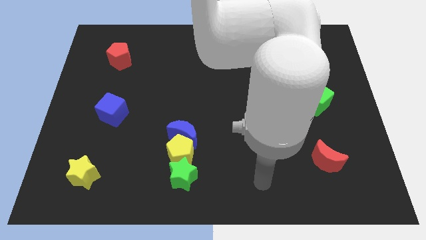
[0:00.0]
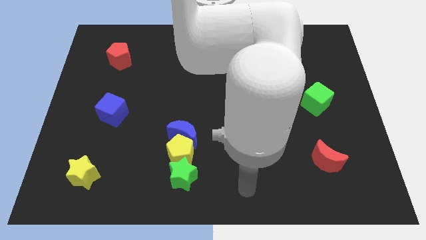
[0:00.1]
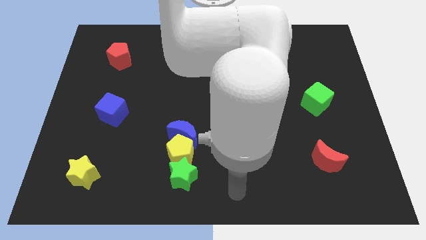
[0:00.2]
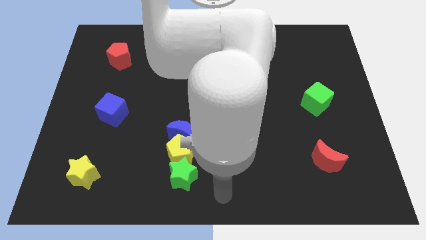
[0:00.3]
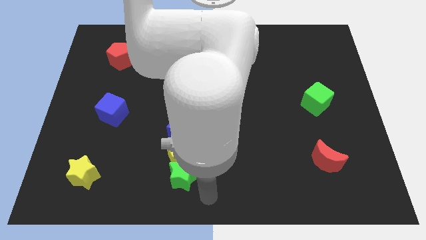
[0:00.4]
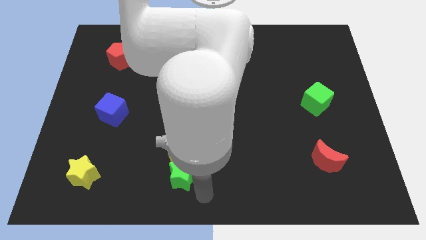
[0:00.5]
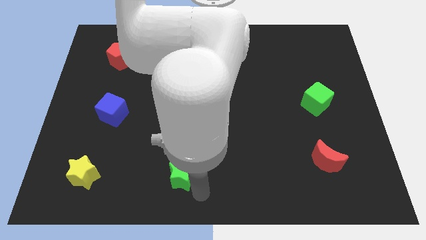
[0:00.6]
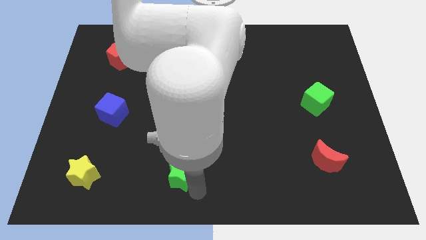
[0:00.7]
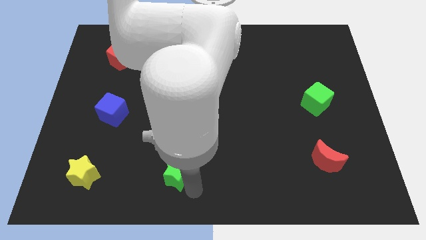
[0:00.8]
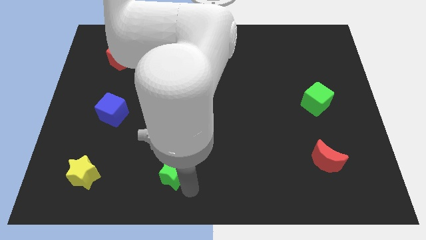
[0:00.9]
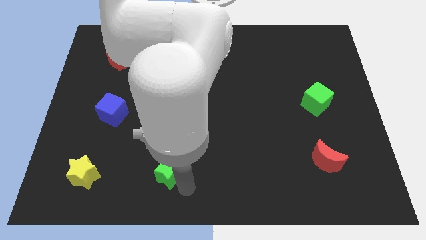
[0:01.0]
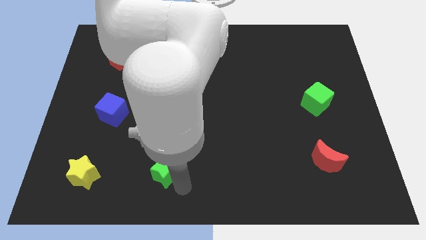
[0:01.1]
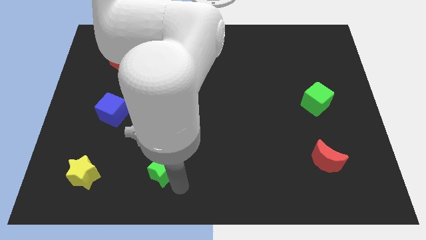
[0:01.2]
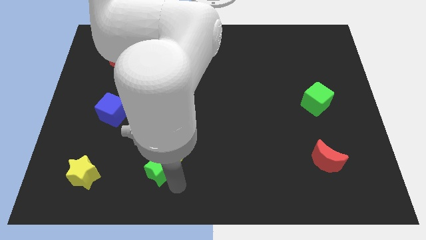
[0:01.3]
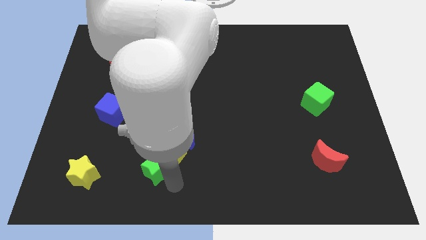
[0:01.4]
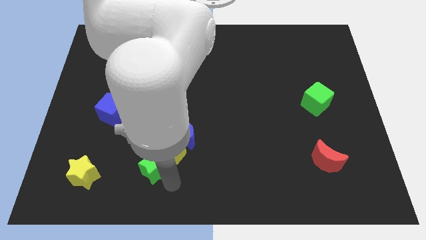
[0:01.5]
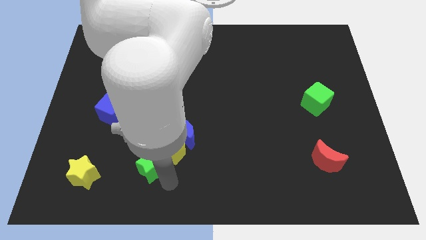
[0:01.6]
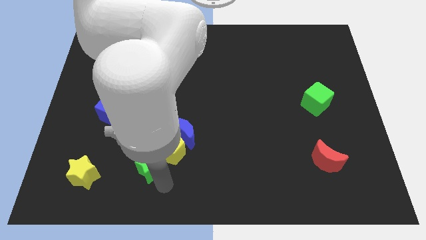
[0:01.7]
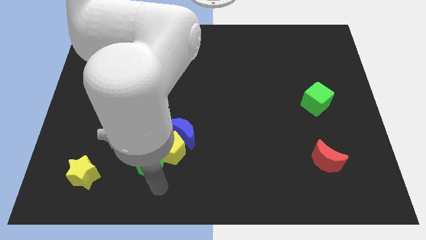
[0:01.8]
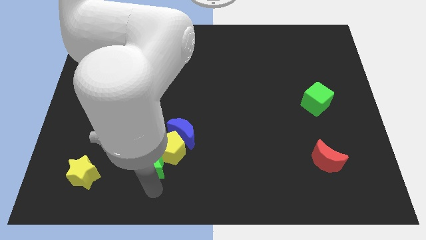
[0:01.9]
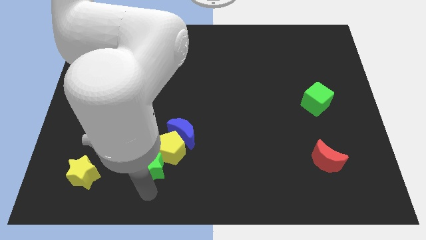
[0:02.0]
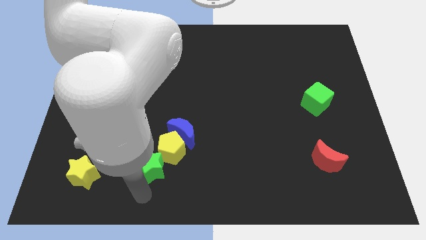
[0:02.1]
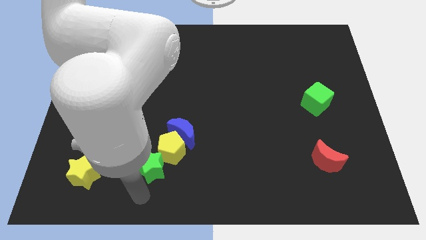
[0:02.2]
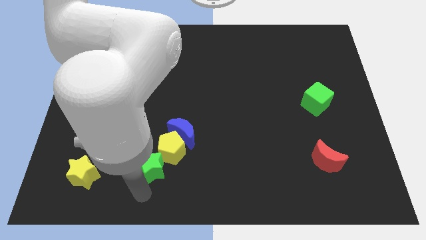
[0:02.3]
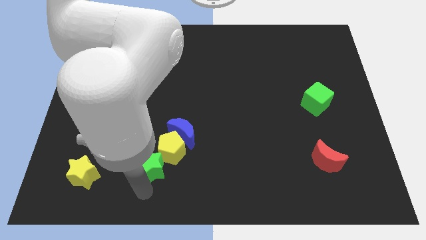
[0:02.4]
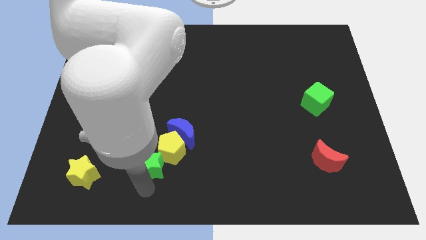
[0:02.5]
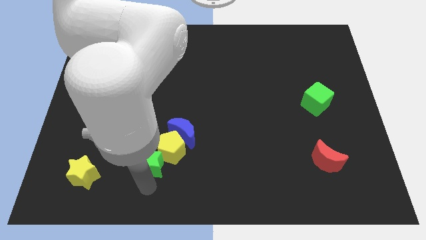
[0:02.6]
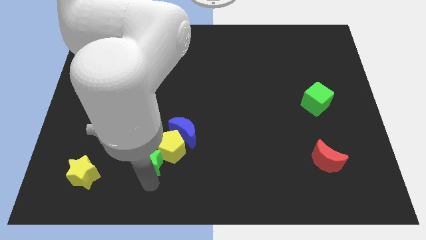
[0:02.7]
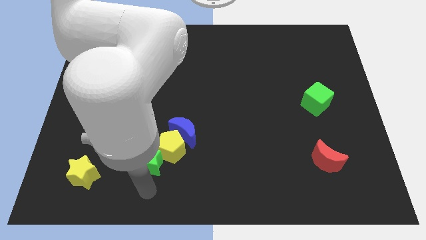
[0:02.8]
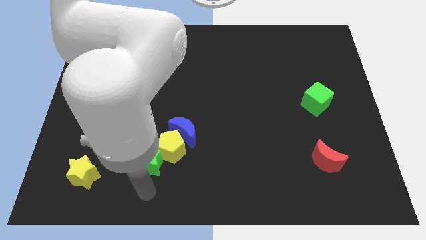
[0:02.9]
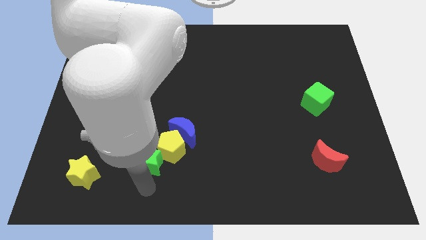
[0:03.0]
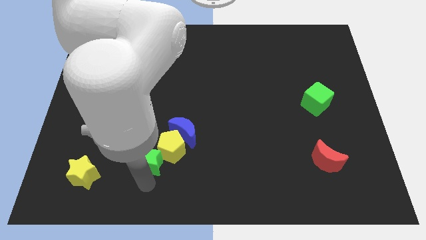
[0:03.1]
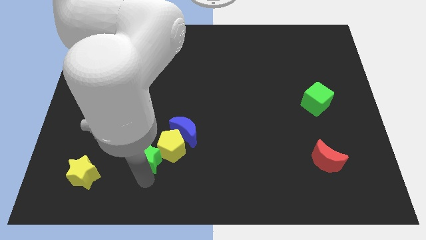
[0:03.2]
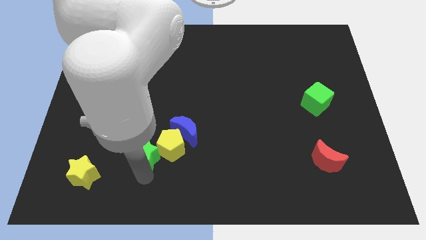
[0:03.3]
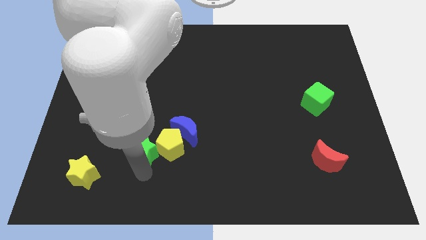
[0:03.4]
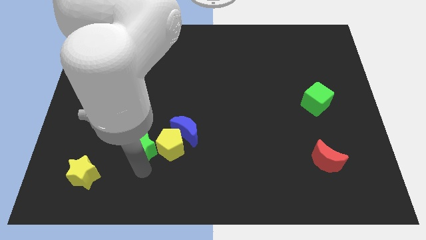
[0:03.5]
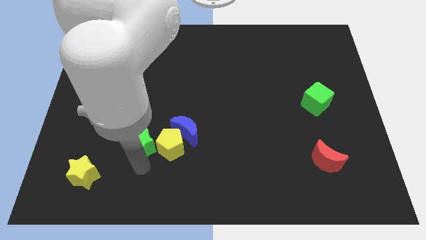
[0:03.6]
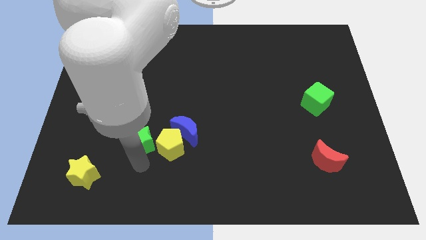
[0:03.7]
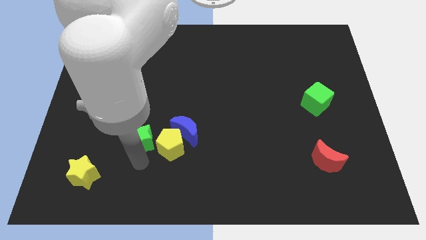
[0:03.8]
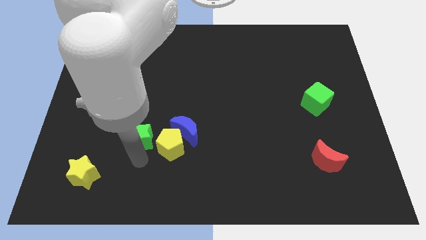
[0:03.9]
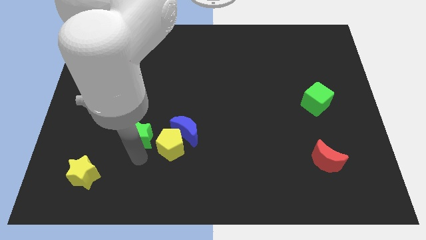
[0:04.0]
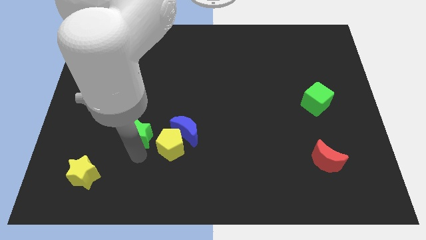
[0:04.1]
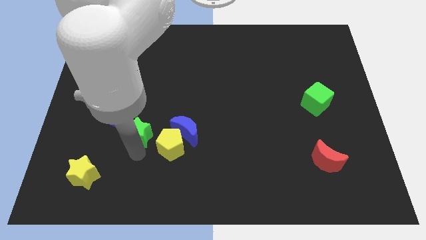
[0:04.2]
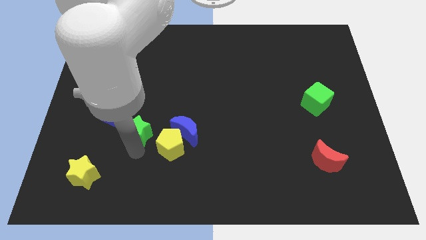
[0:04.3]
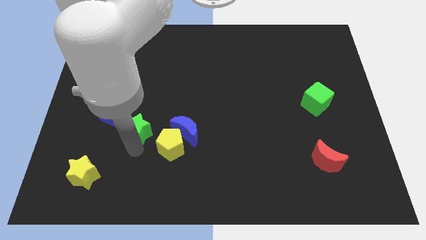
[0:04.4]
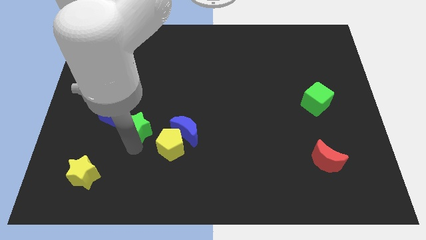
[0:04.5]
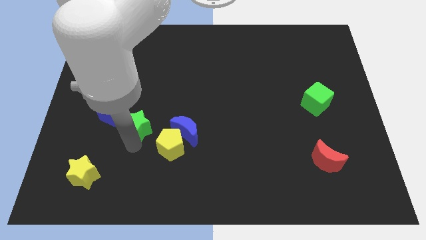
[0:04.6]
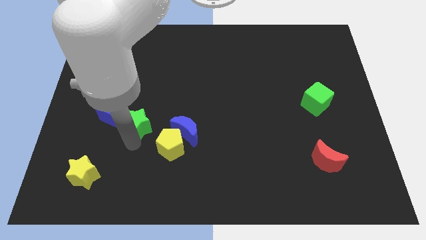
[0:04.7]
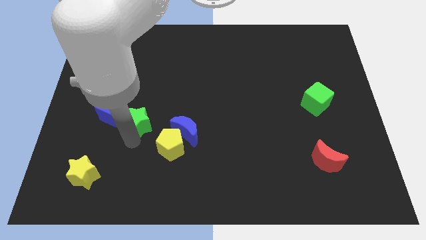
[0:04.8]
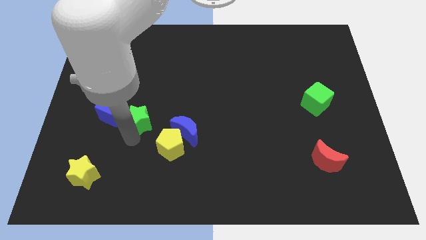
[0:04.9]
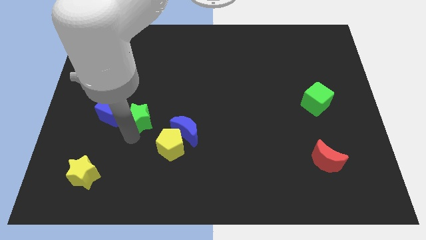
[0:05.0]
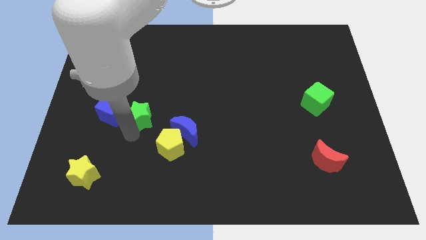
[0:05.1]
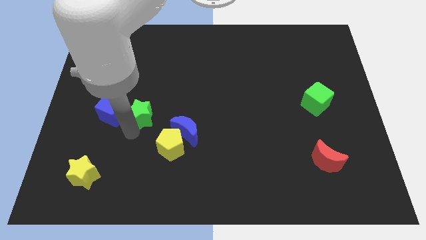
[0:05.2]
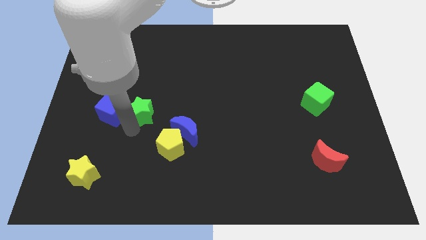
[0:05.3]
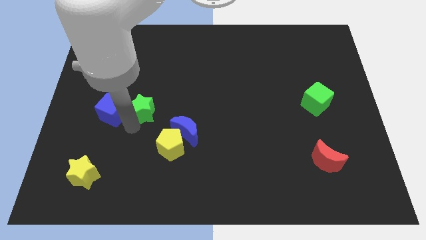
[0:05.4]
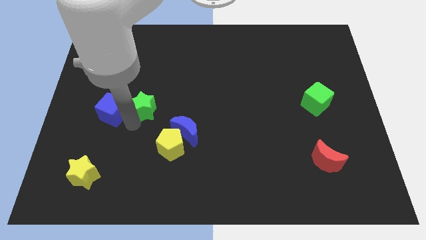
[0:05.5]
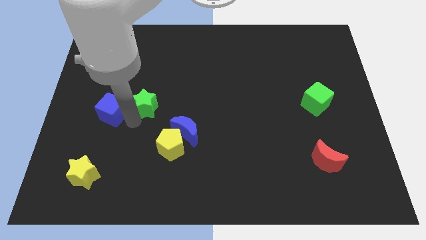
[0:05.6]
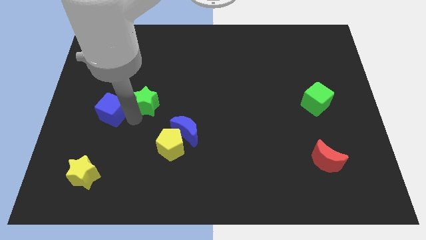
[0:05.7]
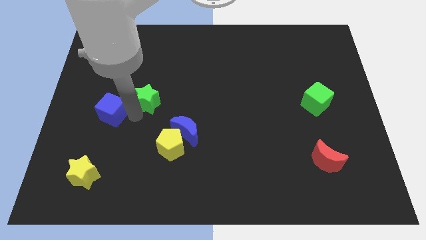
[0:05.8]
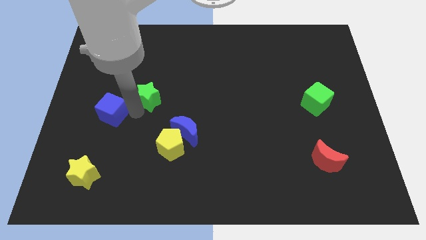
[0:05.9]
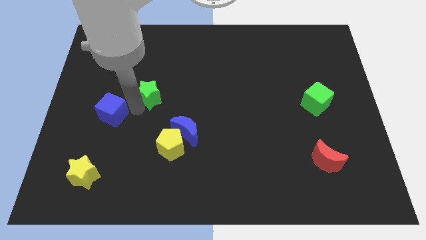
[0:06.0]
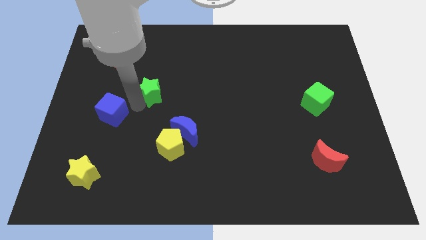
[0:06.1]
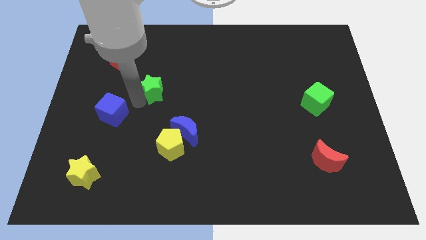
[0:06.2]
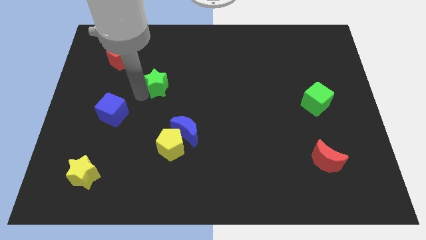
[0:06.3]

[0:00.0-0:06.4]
push the green star upwards

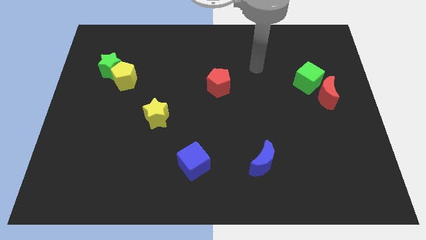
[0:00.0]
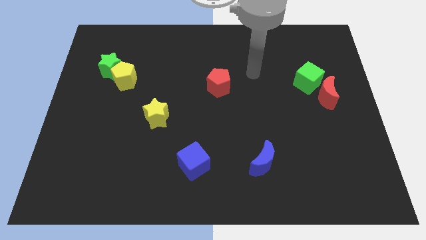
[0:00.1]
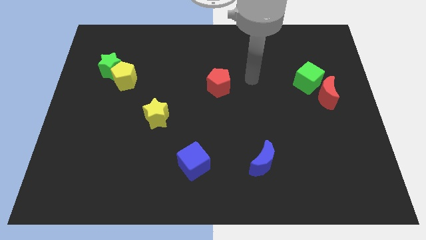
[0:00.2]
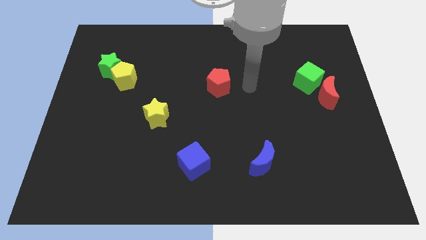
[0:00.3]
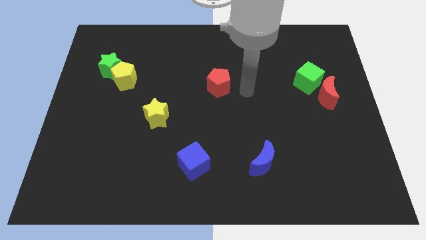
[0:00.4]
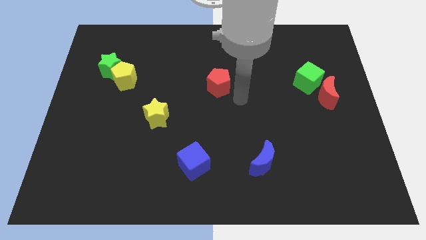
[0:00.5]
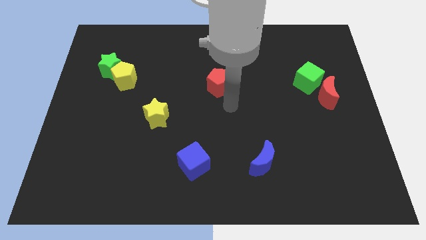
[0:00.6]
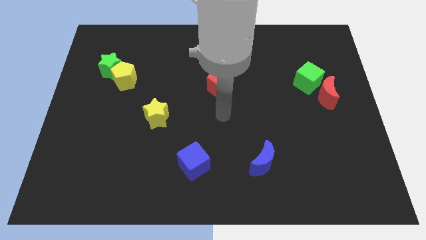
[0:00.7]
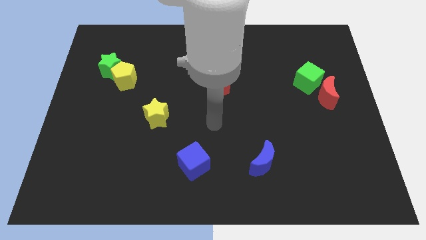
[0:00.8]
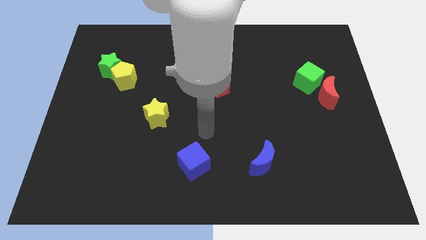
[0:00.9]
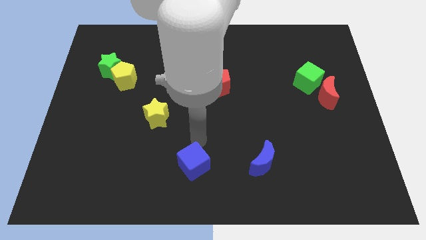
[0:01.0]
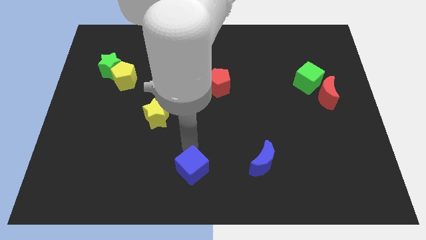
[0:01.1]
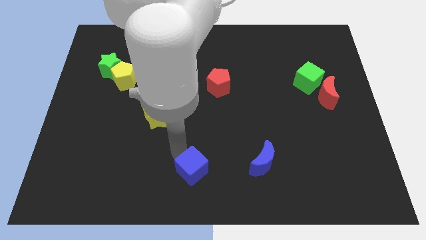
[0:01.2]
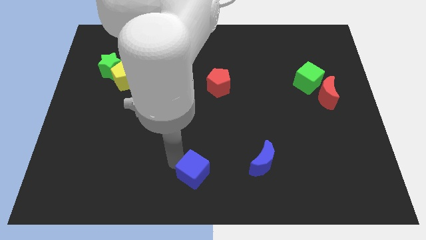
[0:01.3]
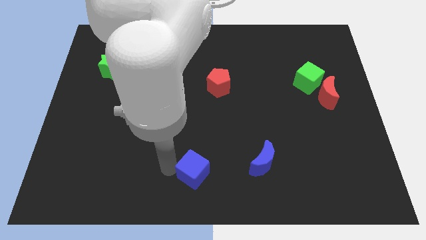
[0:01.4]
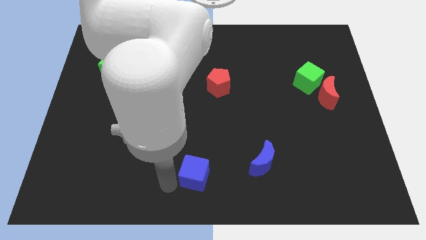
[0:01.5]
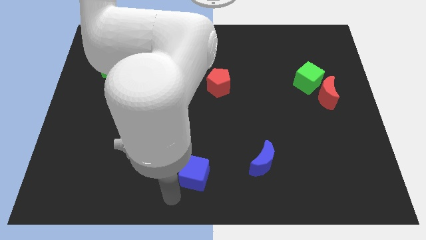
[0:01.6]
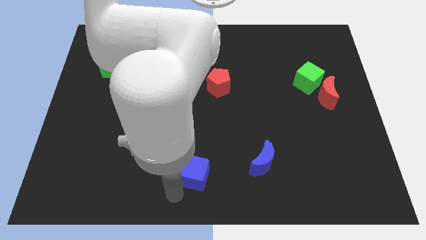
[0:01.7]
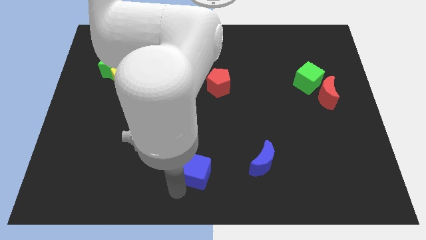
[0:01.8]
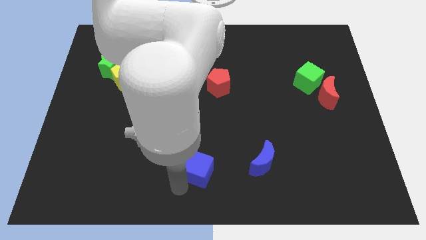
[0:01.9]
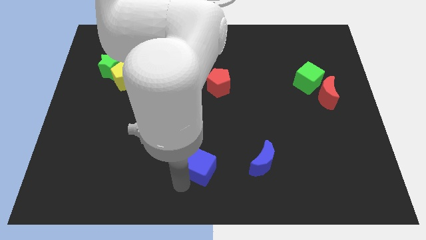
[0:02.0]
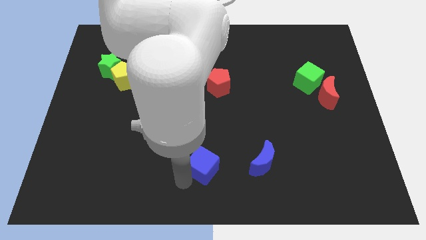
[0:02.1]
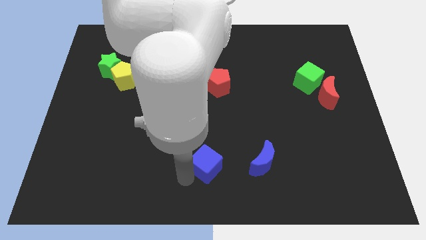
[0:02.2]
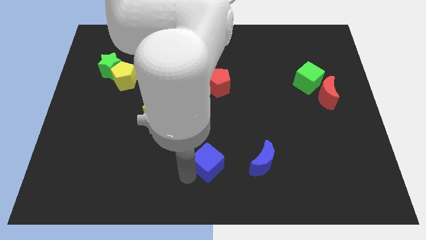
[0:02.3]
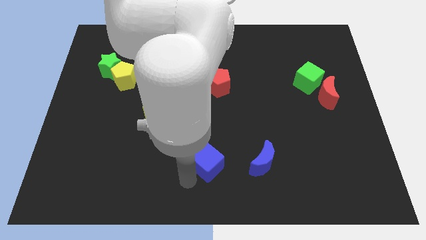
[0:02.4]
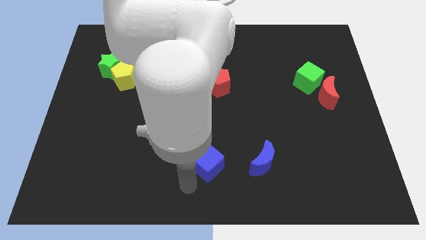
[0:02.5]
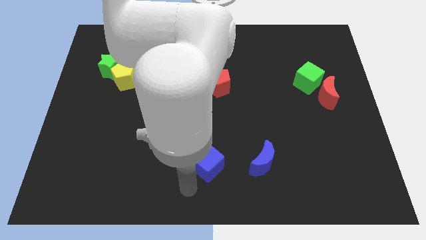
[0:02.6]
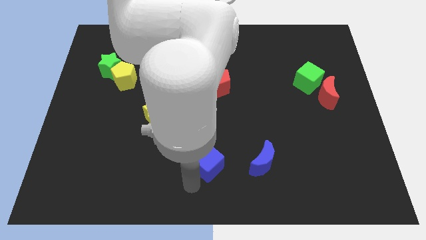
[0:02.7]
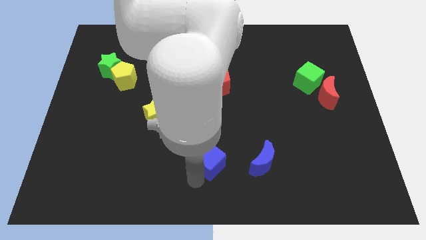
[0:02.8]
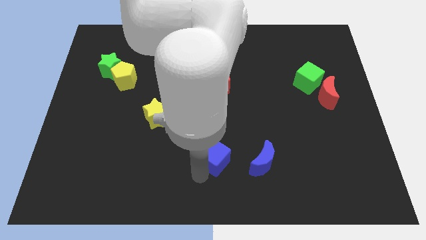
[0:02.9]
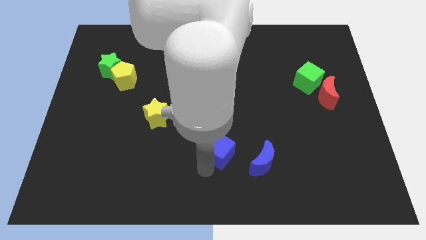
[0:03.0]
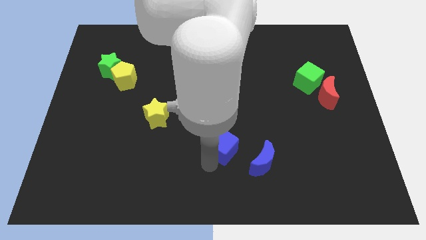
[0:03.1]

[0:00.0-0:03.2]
slightly push the blue cube up and right
